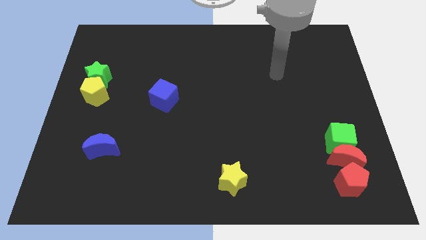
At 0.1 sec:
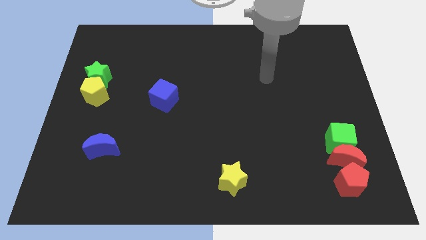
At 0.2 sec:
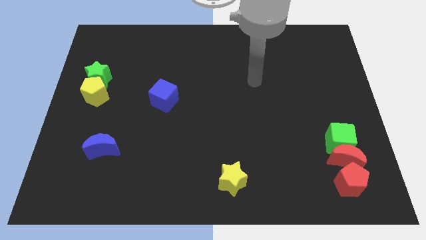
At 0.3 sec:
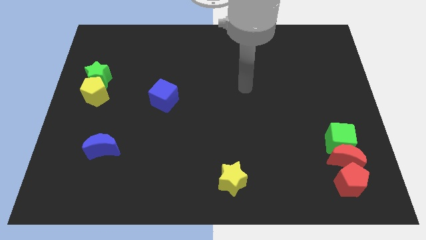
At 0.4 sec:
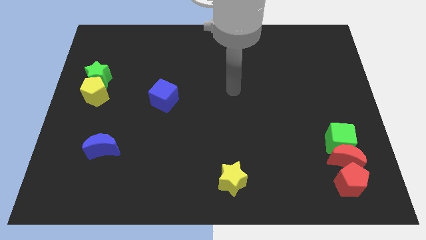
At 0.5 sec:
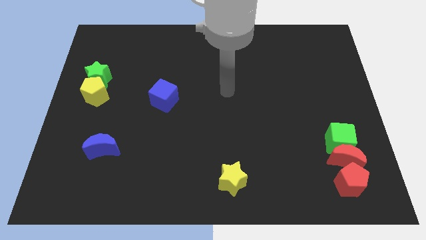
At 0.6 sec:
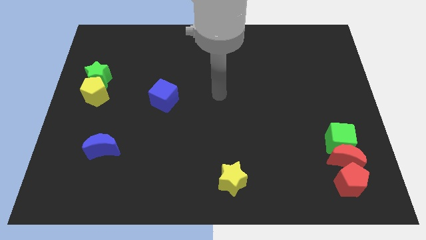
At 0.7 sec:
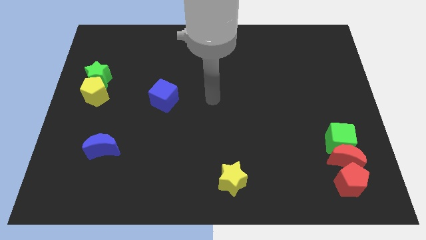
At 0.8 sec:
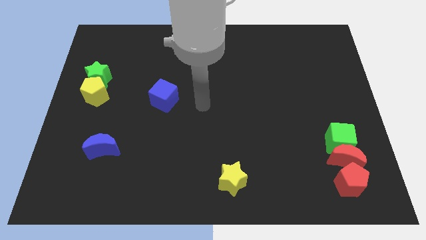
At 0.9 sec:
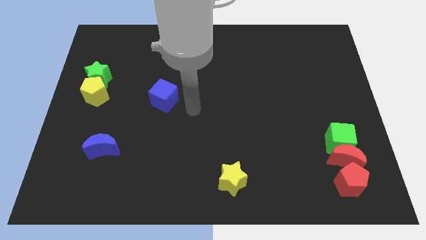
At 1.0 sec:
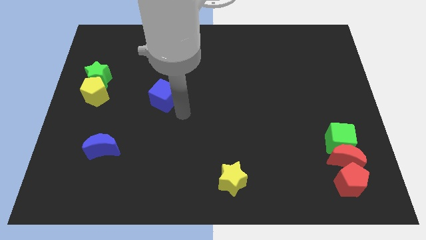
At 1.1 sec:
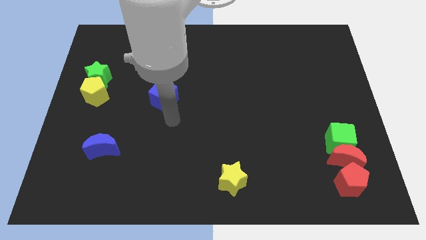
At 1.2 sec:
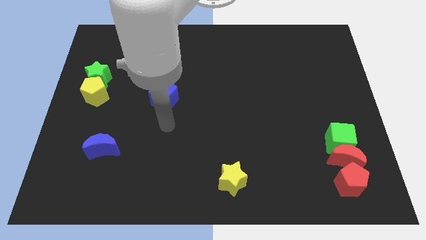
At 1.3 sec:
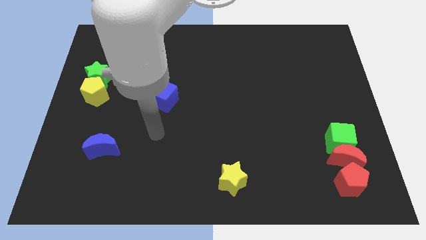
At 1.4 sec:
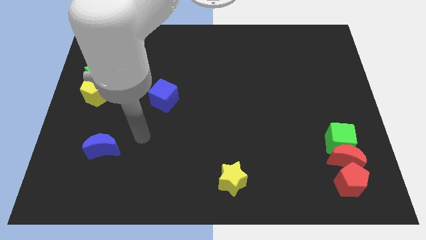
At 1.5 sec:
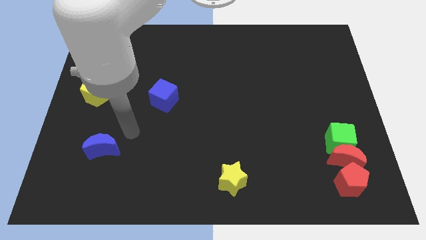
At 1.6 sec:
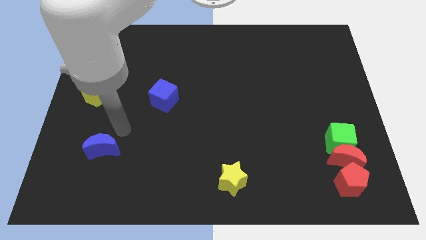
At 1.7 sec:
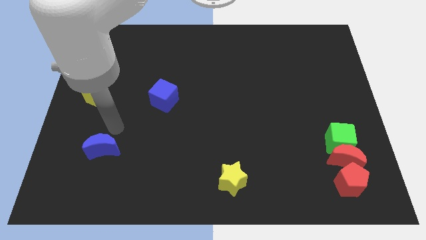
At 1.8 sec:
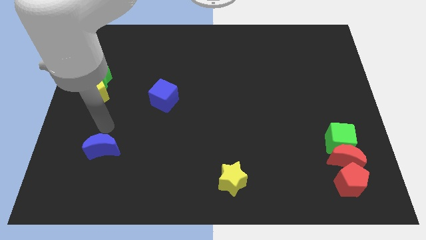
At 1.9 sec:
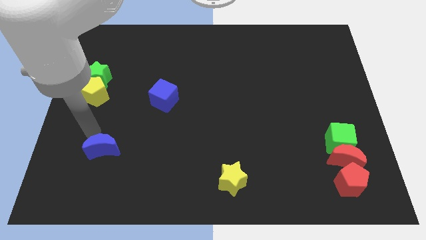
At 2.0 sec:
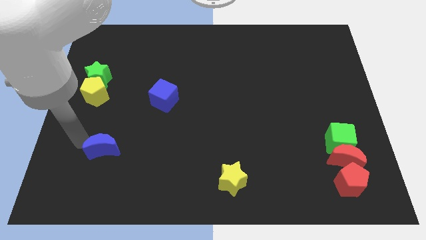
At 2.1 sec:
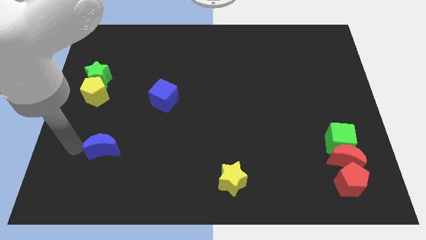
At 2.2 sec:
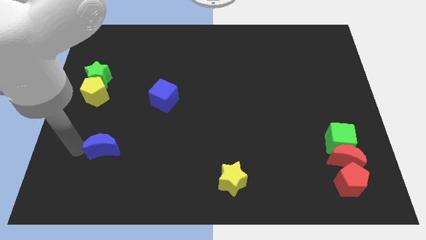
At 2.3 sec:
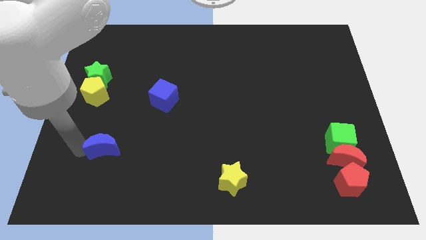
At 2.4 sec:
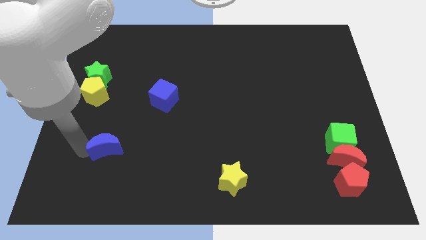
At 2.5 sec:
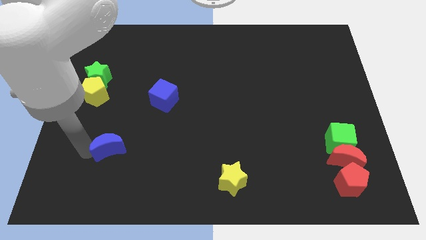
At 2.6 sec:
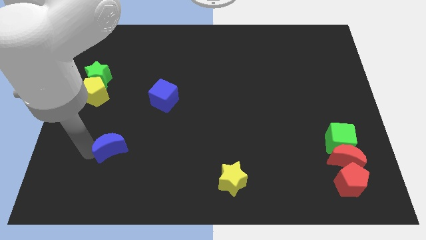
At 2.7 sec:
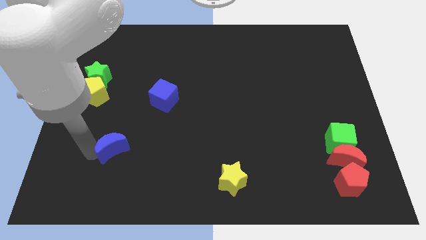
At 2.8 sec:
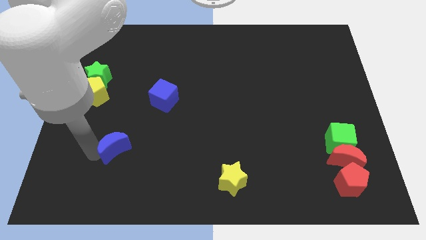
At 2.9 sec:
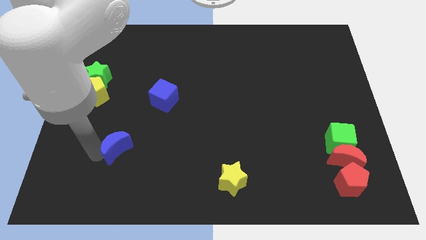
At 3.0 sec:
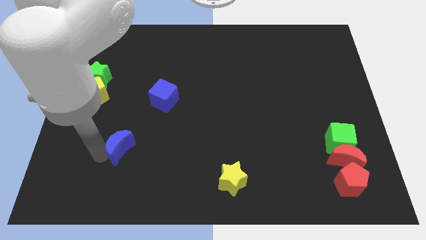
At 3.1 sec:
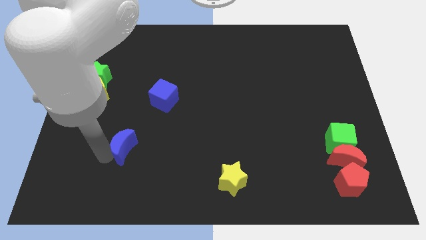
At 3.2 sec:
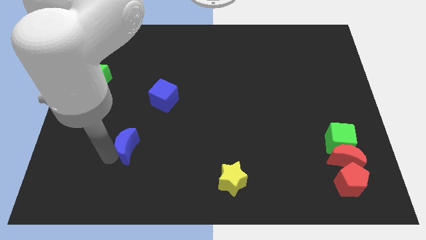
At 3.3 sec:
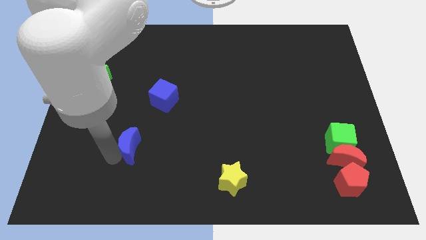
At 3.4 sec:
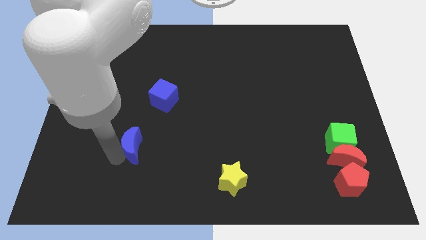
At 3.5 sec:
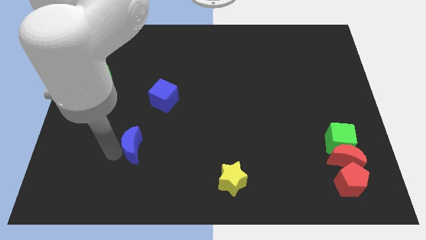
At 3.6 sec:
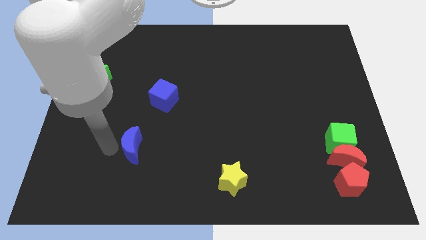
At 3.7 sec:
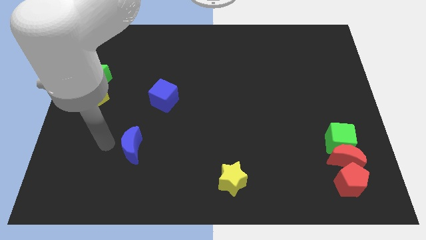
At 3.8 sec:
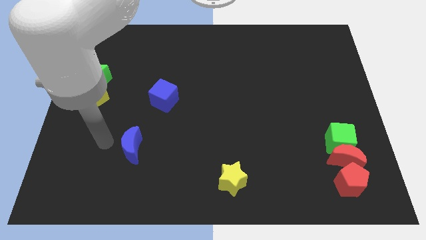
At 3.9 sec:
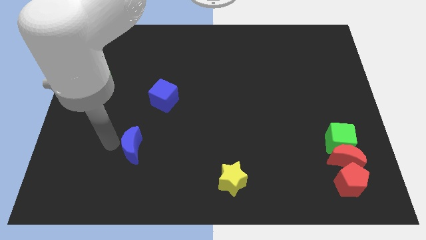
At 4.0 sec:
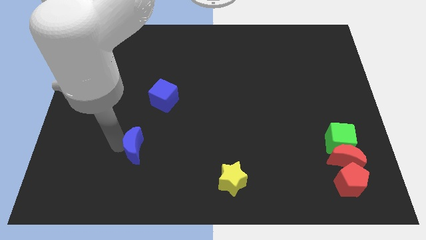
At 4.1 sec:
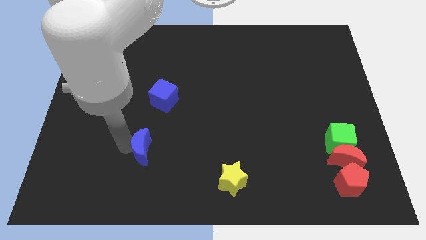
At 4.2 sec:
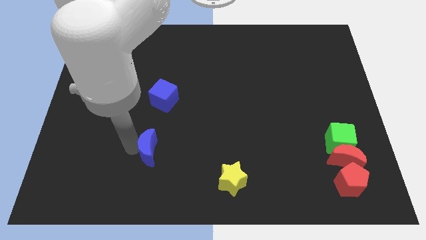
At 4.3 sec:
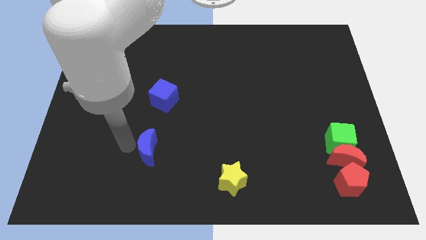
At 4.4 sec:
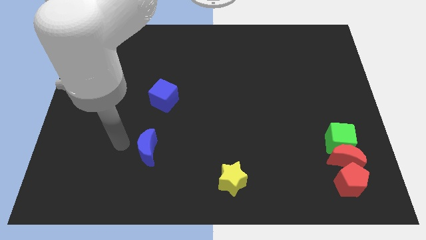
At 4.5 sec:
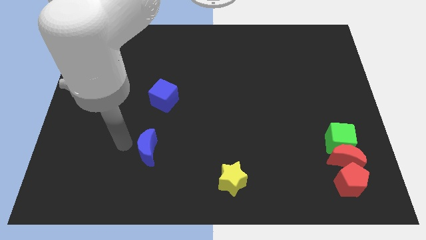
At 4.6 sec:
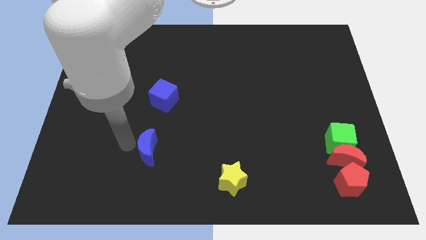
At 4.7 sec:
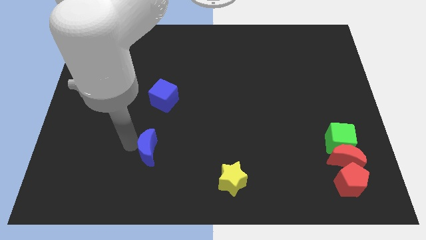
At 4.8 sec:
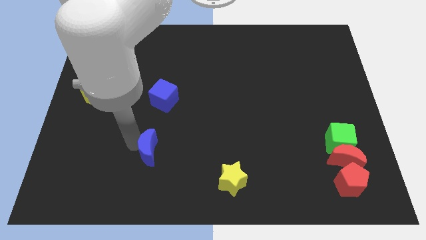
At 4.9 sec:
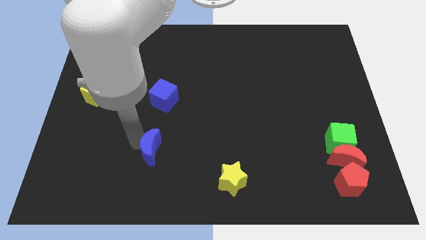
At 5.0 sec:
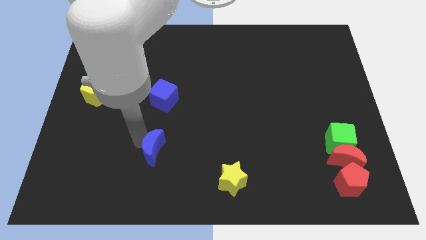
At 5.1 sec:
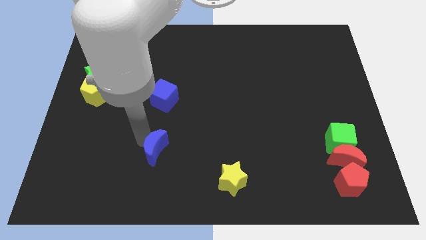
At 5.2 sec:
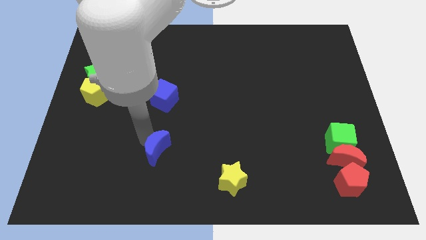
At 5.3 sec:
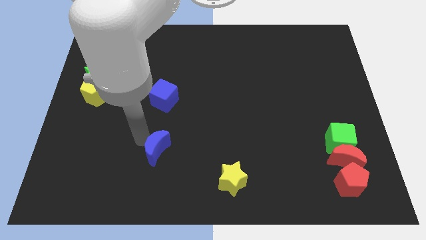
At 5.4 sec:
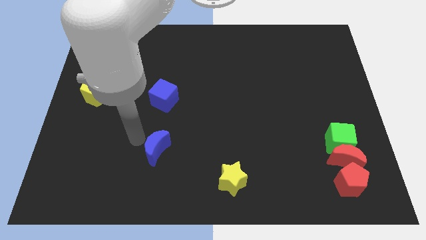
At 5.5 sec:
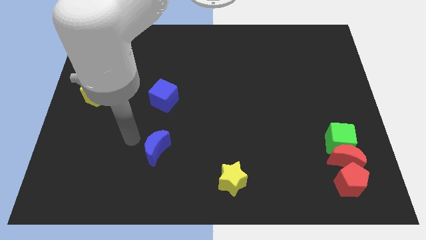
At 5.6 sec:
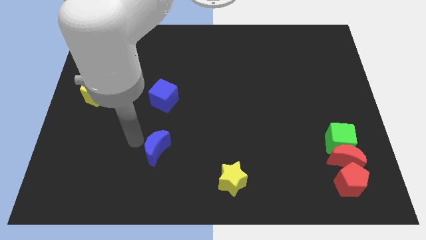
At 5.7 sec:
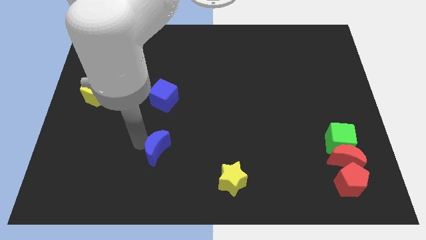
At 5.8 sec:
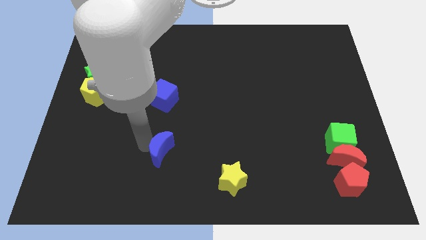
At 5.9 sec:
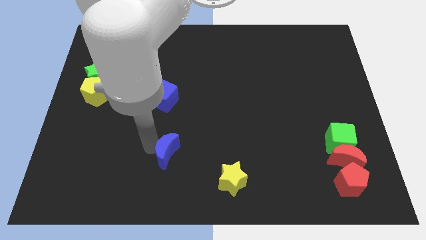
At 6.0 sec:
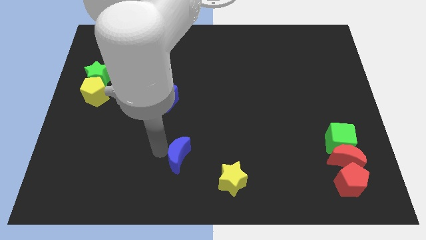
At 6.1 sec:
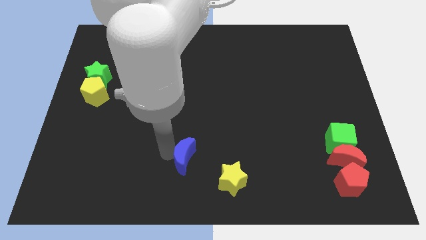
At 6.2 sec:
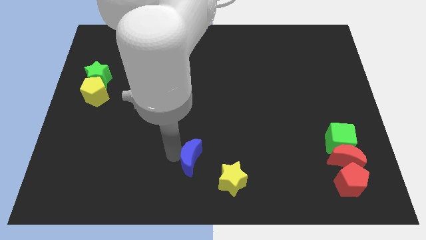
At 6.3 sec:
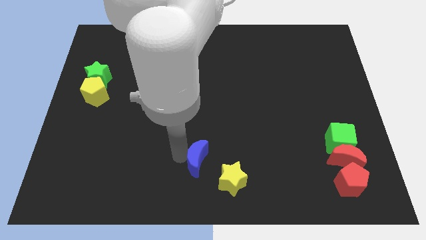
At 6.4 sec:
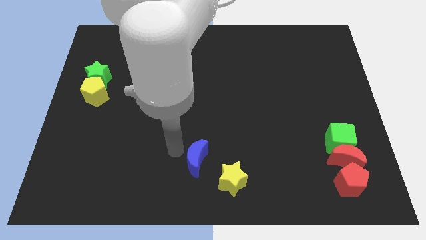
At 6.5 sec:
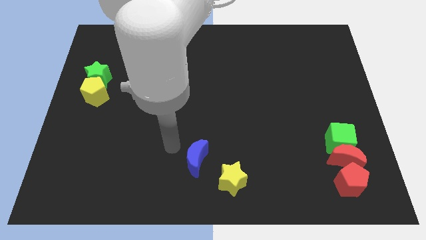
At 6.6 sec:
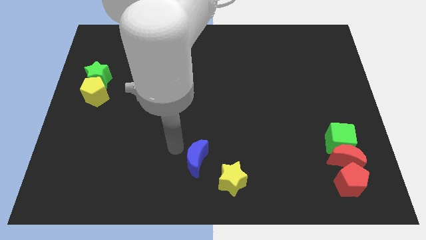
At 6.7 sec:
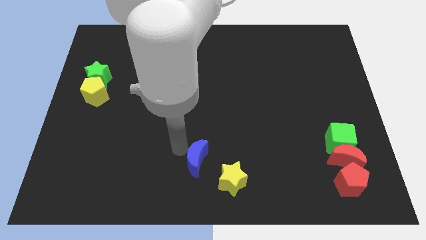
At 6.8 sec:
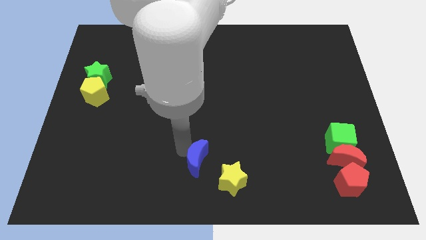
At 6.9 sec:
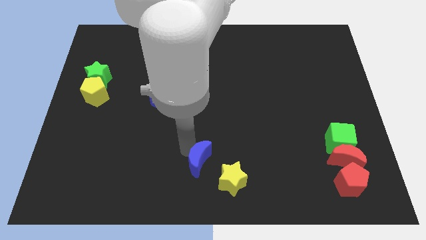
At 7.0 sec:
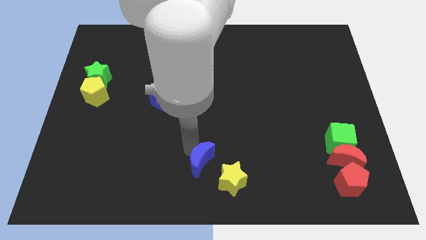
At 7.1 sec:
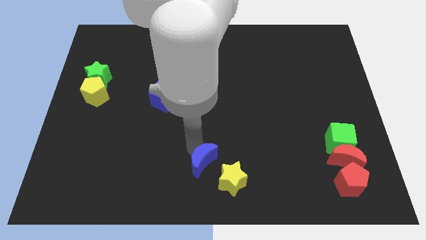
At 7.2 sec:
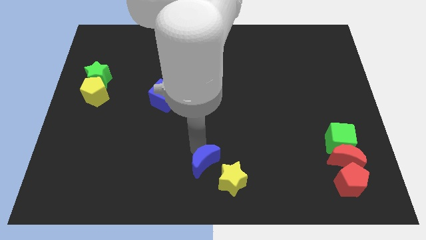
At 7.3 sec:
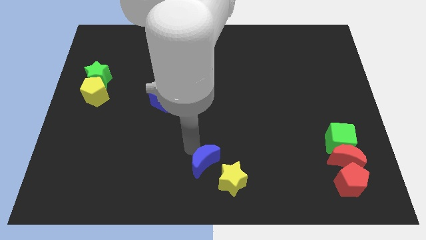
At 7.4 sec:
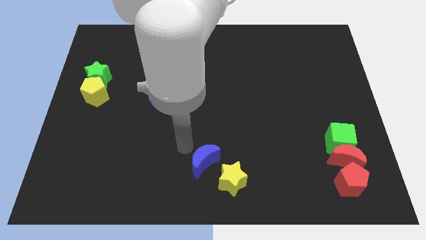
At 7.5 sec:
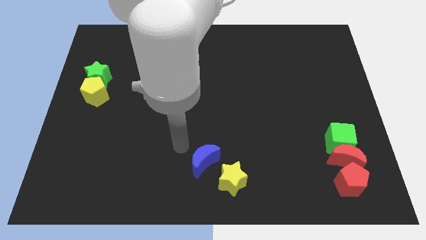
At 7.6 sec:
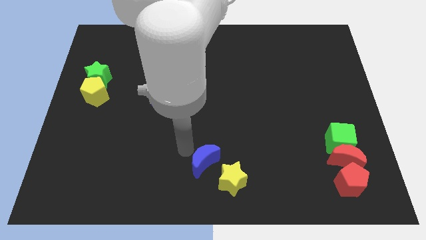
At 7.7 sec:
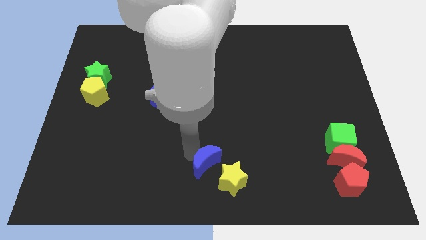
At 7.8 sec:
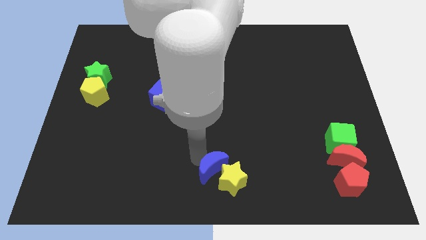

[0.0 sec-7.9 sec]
put the blue moon to the yellow star
